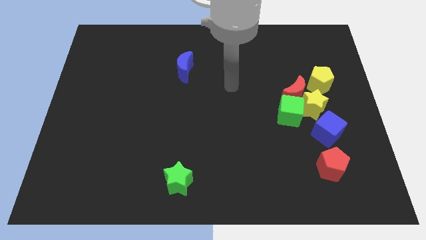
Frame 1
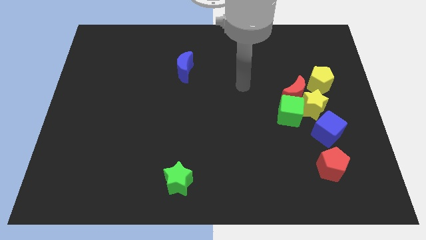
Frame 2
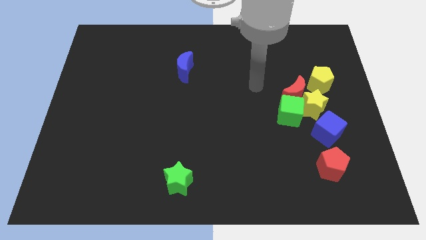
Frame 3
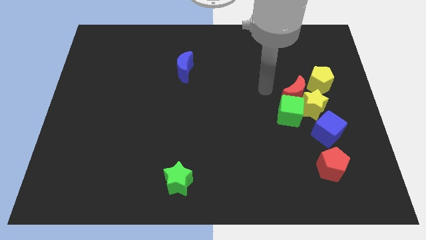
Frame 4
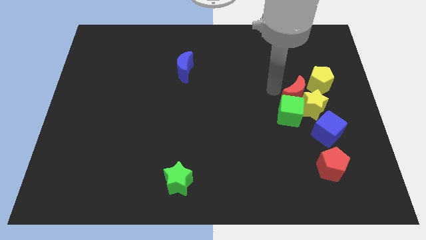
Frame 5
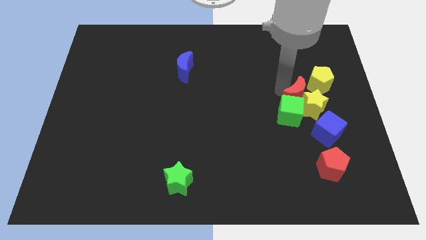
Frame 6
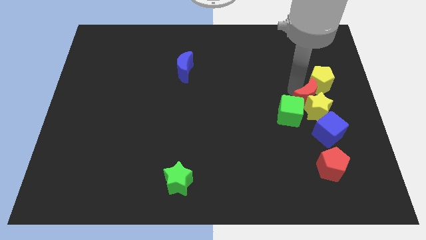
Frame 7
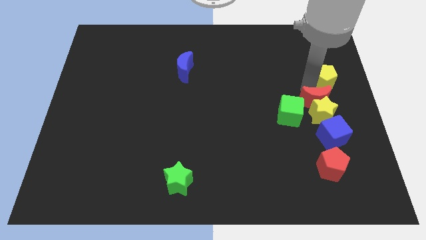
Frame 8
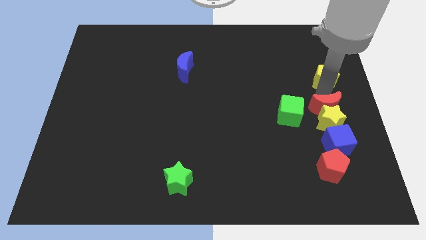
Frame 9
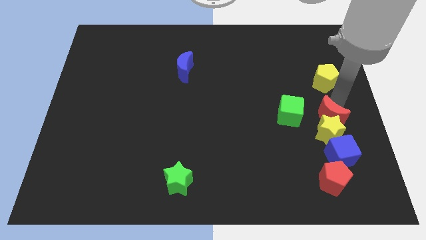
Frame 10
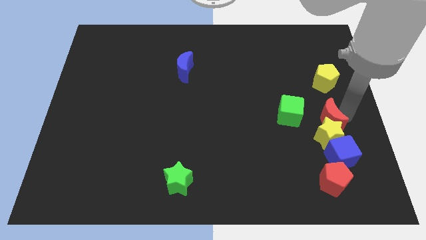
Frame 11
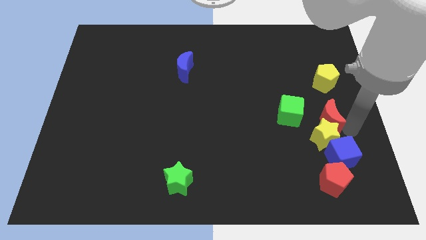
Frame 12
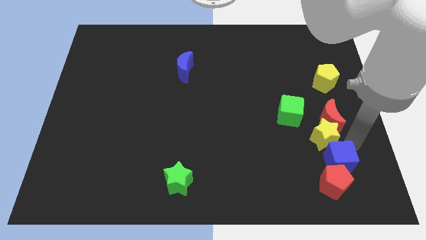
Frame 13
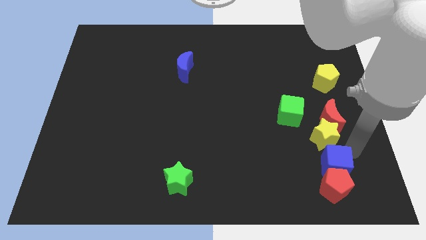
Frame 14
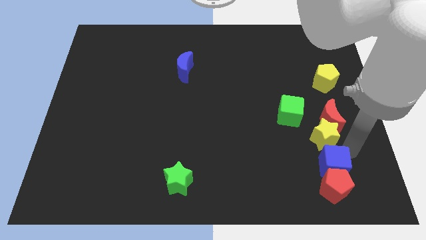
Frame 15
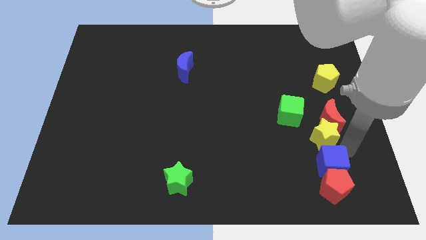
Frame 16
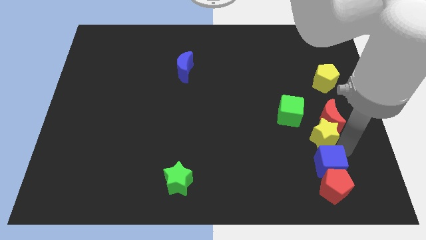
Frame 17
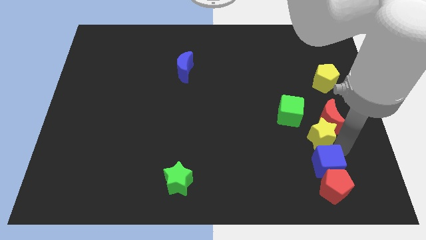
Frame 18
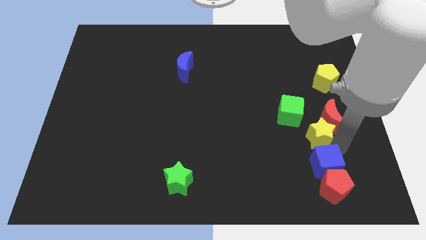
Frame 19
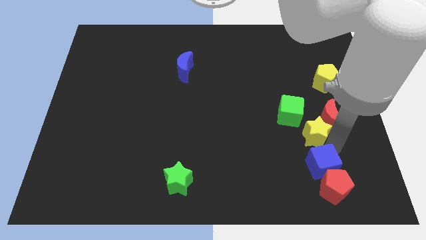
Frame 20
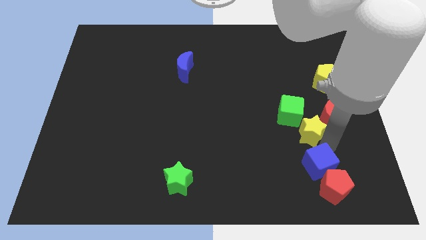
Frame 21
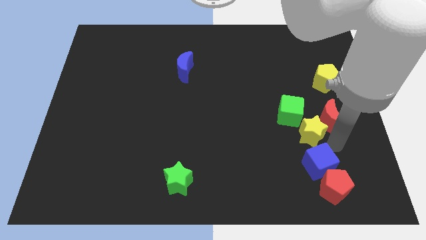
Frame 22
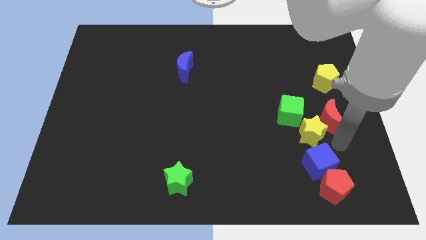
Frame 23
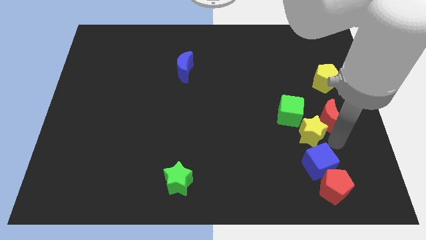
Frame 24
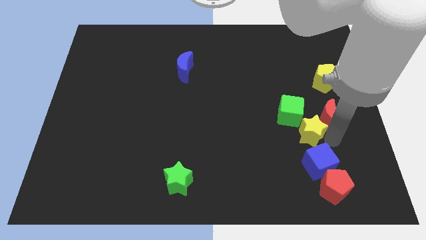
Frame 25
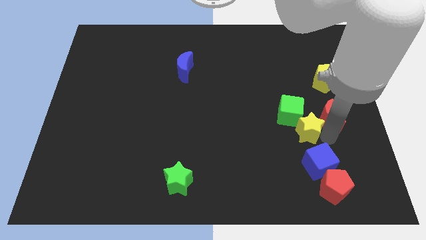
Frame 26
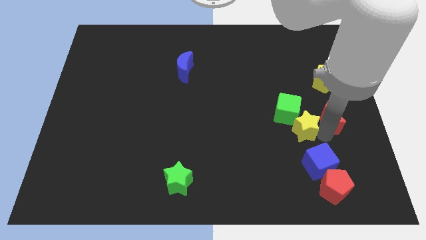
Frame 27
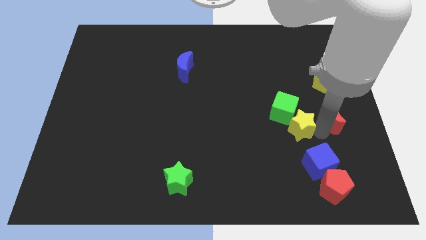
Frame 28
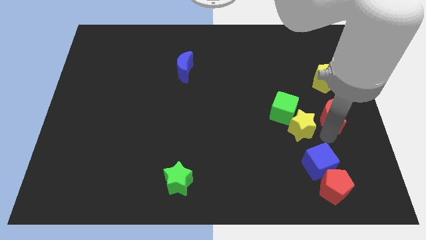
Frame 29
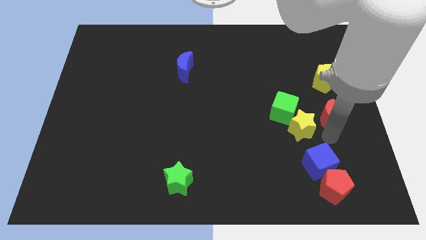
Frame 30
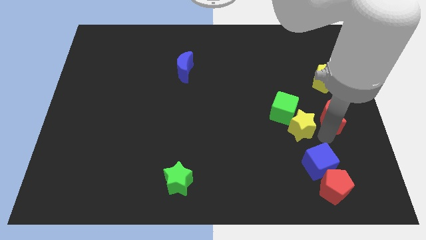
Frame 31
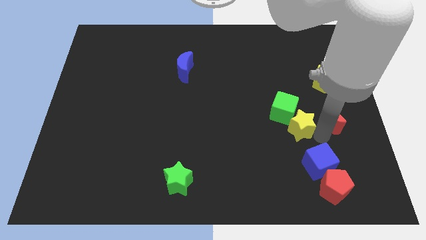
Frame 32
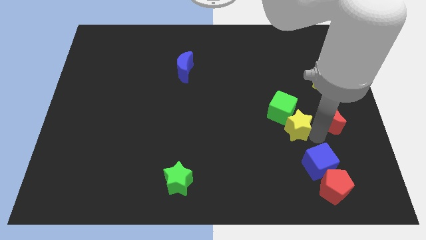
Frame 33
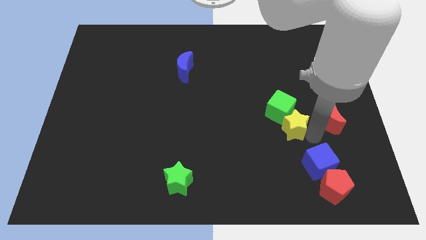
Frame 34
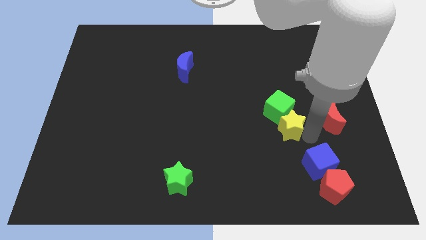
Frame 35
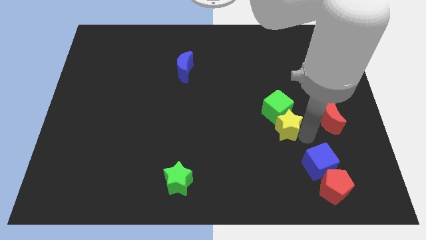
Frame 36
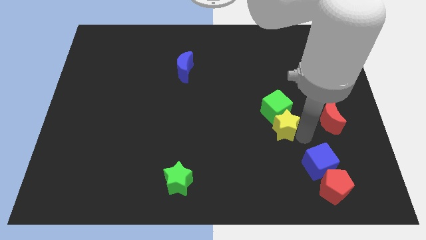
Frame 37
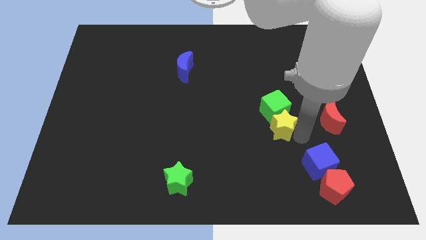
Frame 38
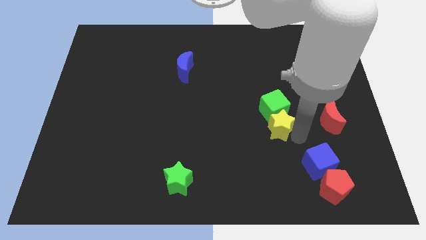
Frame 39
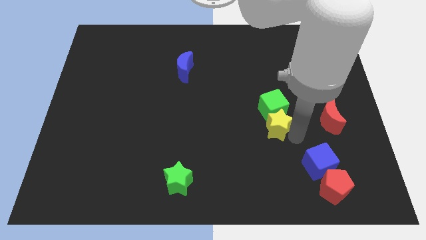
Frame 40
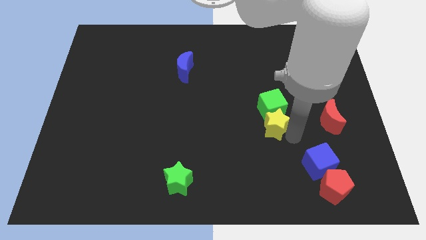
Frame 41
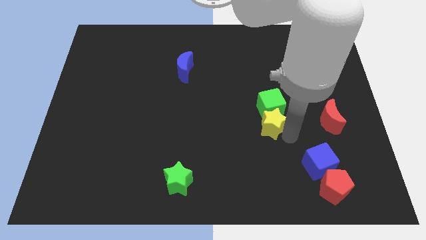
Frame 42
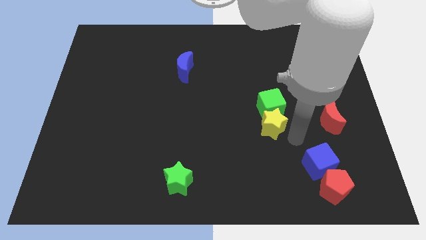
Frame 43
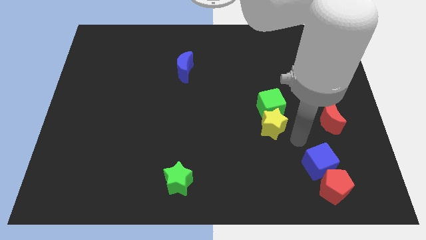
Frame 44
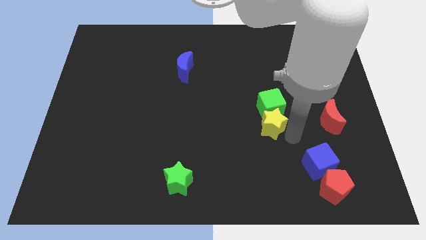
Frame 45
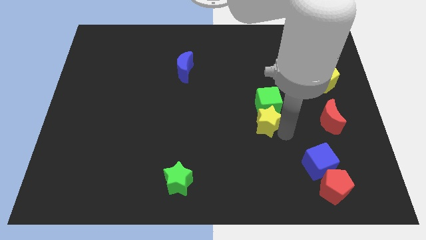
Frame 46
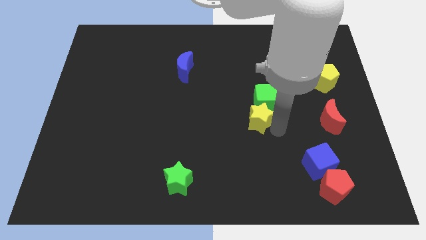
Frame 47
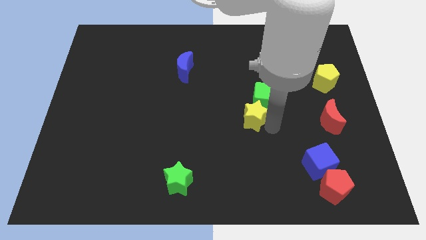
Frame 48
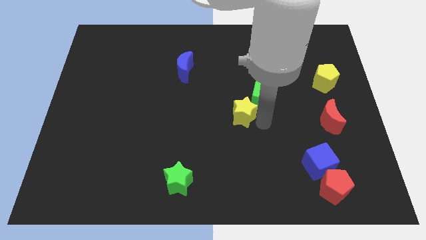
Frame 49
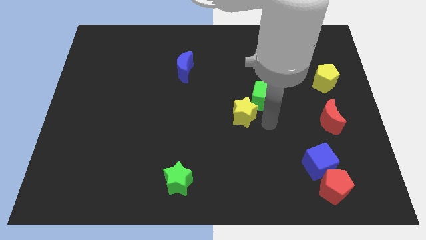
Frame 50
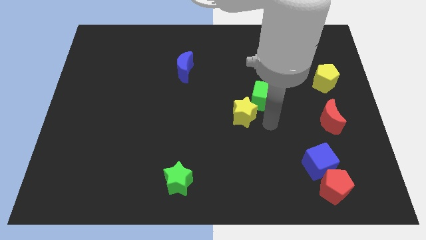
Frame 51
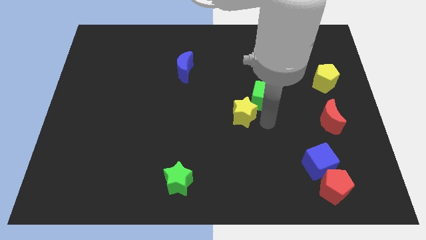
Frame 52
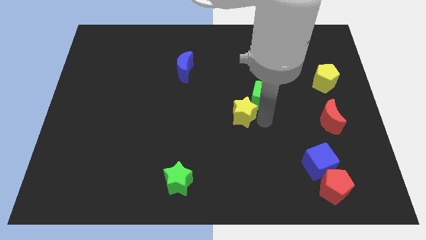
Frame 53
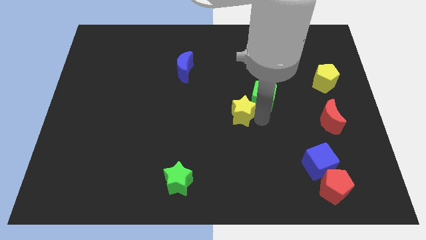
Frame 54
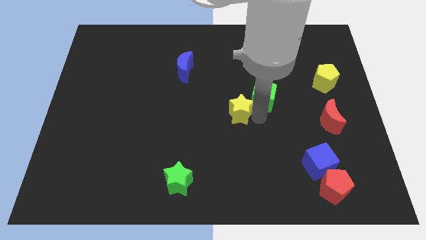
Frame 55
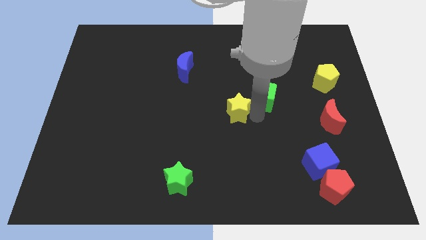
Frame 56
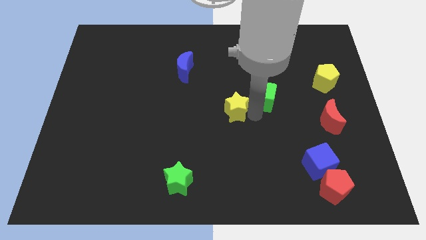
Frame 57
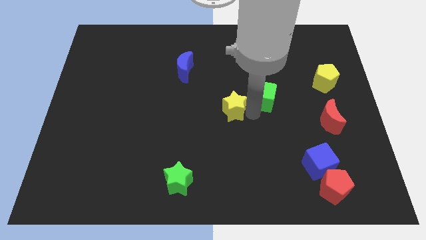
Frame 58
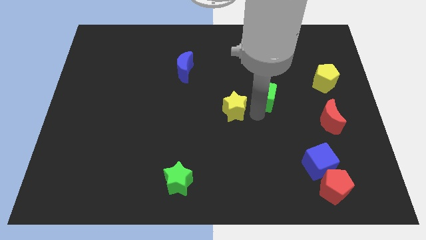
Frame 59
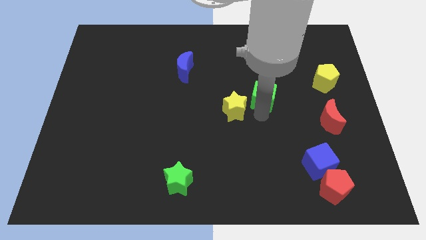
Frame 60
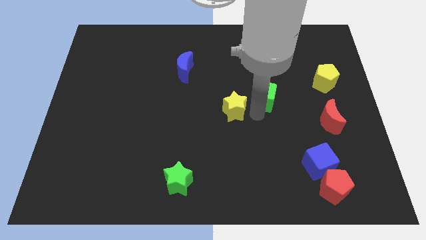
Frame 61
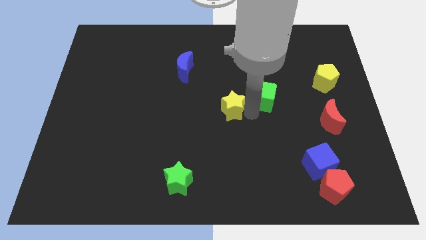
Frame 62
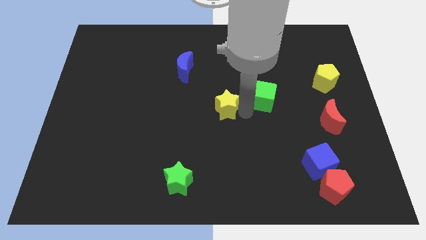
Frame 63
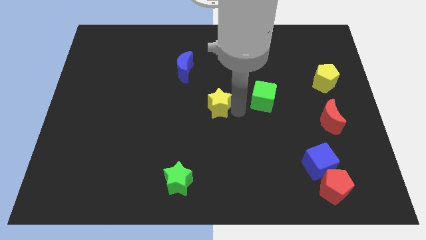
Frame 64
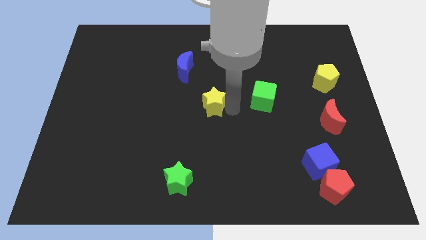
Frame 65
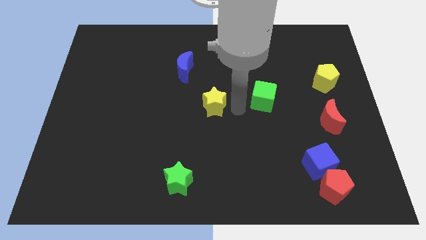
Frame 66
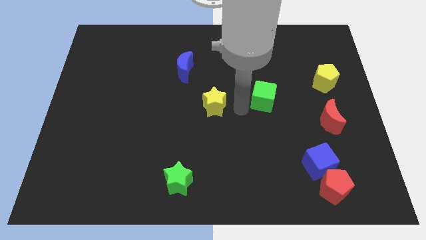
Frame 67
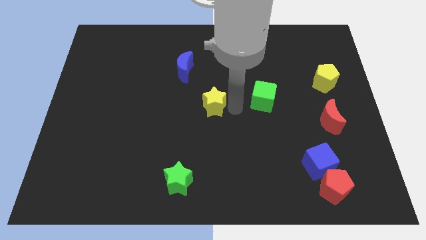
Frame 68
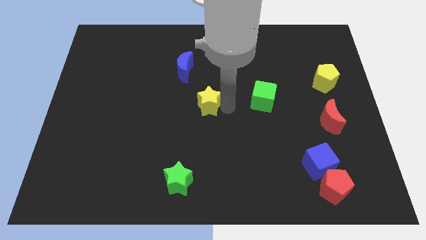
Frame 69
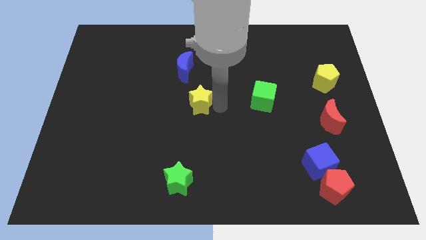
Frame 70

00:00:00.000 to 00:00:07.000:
put the yellow star below the blue moon
